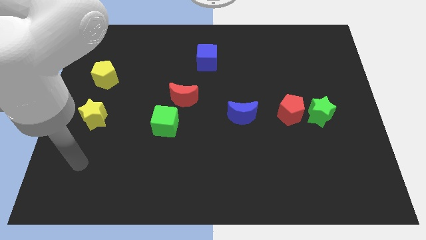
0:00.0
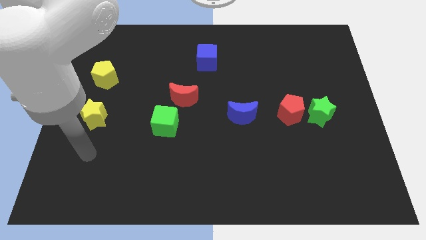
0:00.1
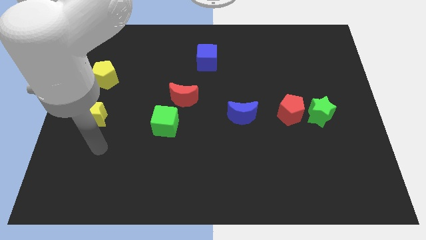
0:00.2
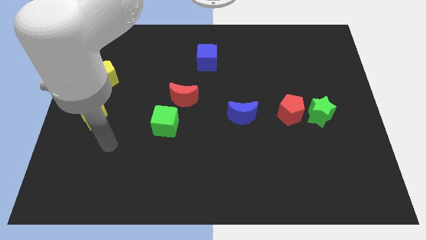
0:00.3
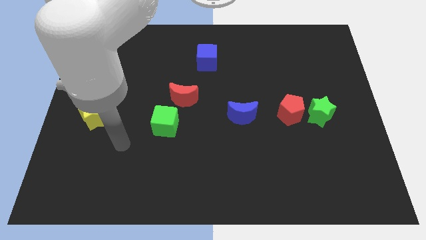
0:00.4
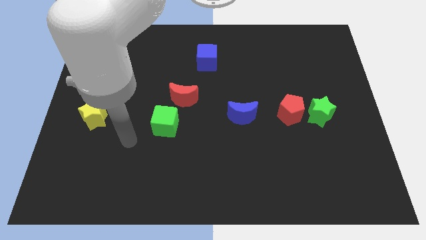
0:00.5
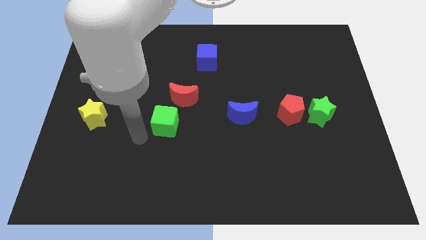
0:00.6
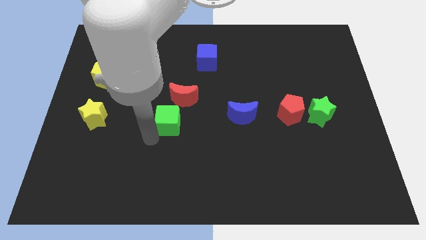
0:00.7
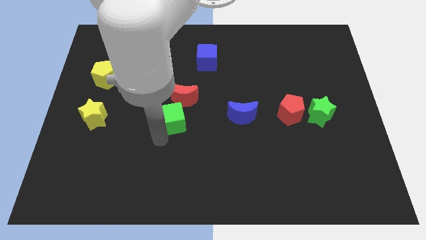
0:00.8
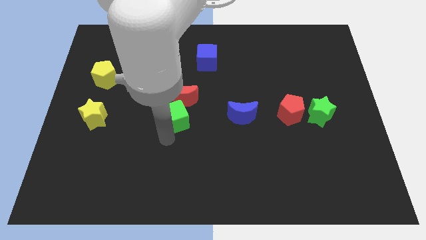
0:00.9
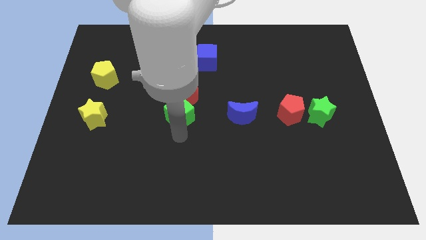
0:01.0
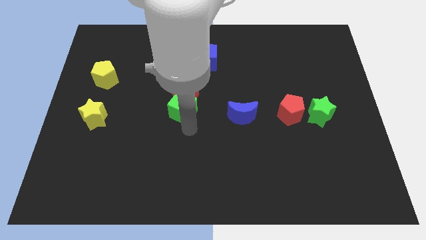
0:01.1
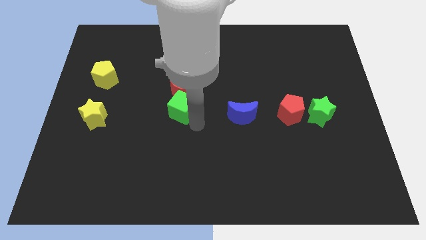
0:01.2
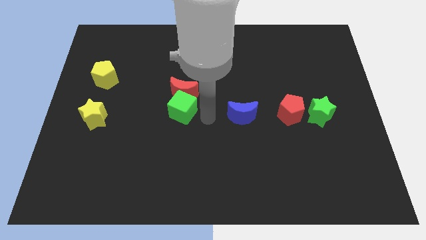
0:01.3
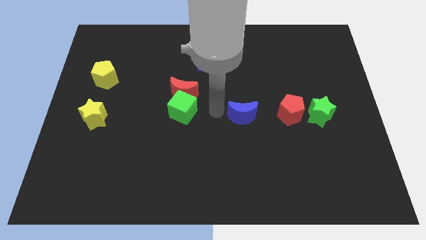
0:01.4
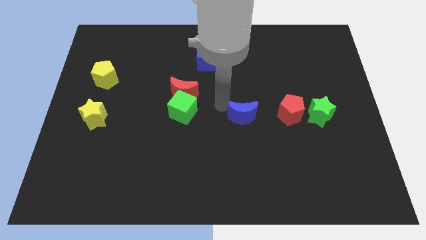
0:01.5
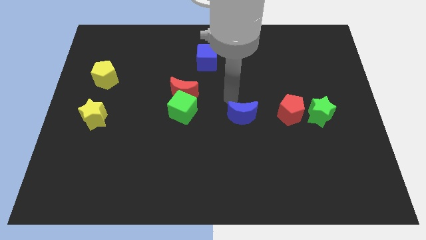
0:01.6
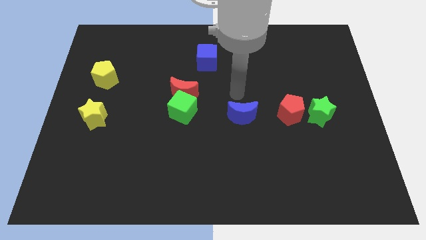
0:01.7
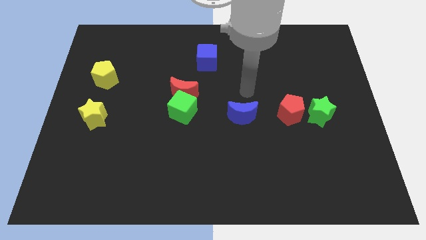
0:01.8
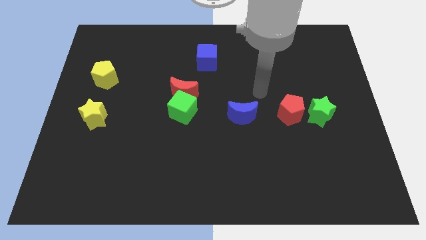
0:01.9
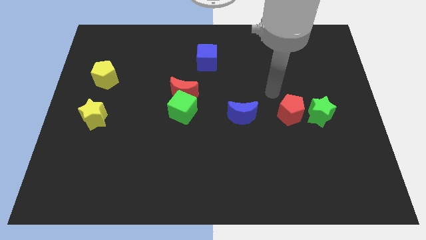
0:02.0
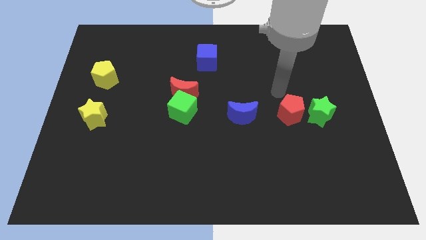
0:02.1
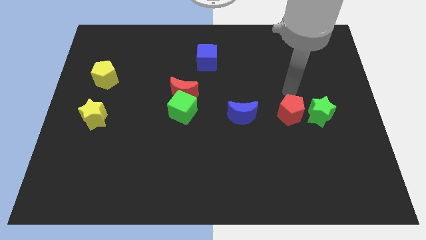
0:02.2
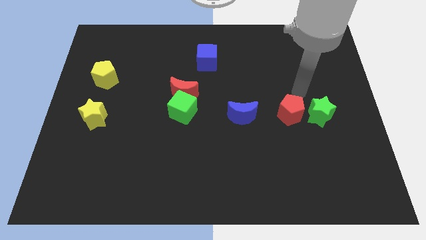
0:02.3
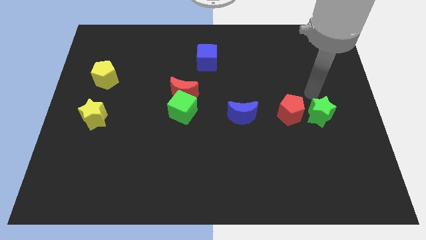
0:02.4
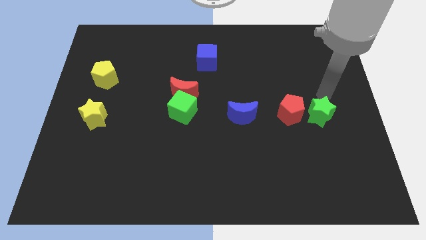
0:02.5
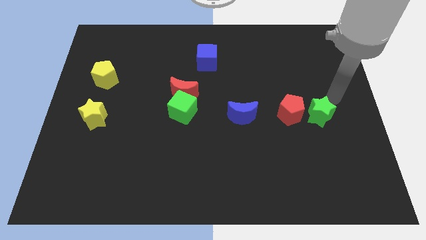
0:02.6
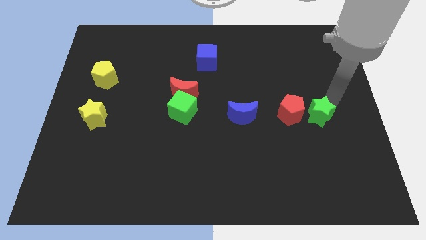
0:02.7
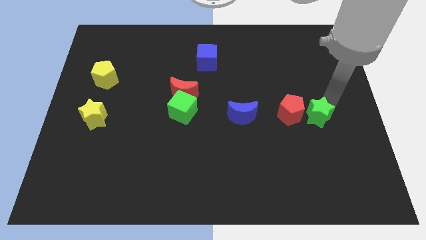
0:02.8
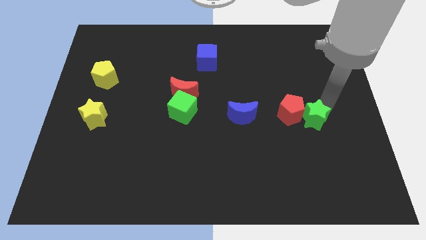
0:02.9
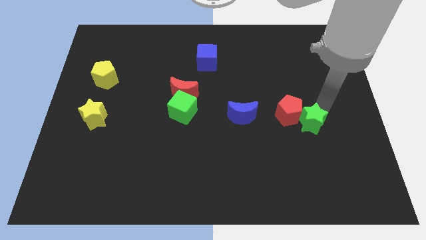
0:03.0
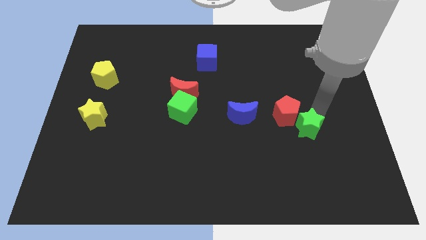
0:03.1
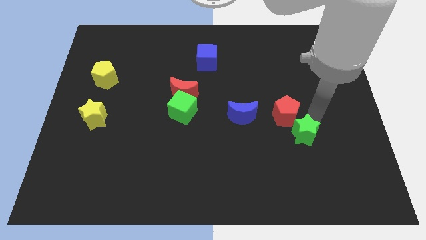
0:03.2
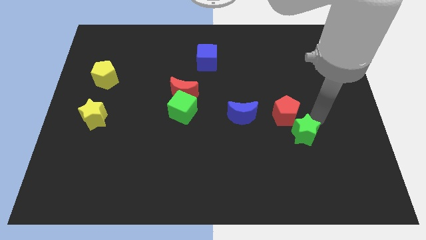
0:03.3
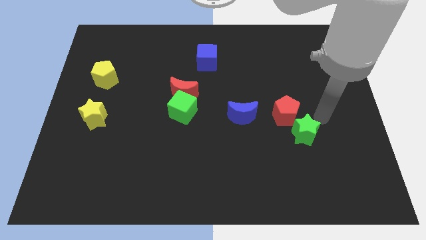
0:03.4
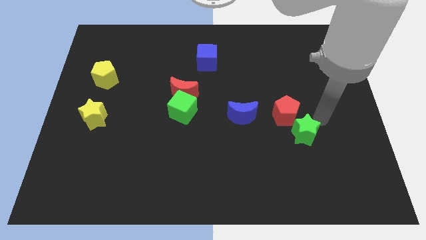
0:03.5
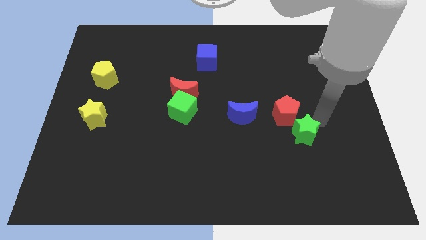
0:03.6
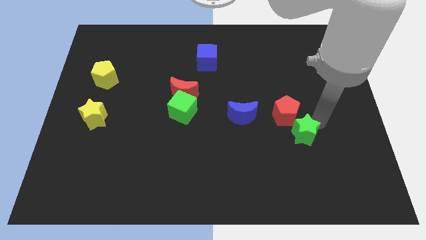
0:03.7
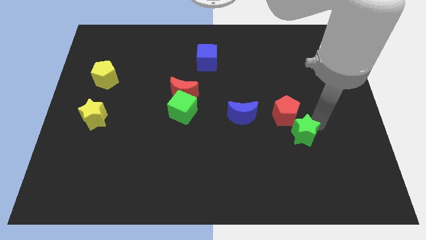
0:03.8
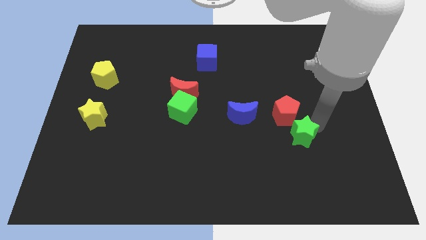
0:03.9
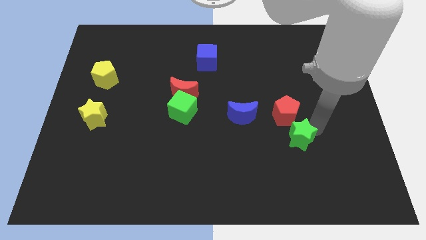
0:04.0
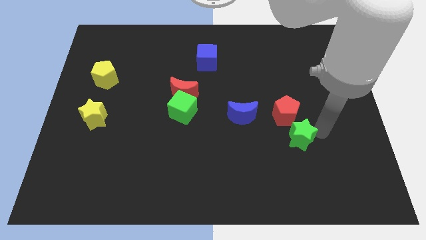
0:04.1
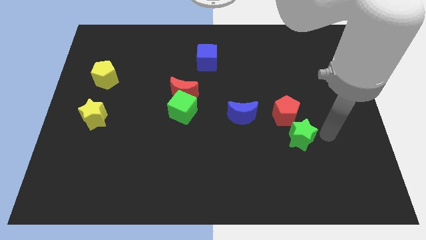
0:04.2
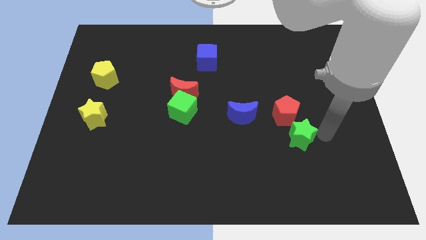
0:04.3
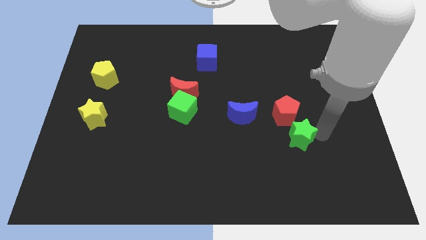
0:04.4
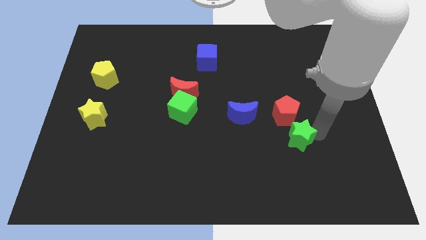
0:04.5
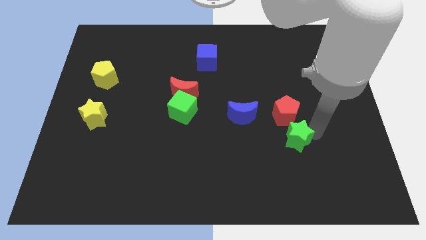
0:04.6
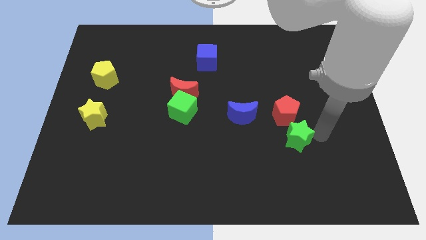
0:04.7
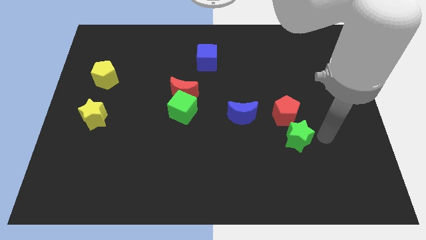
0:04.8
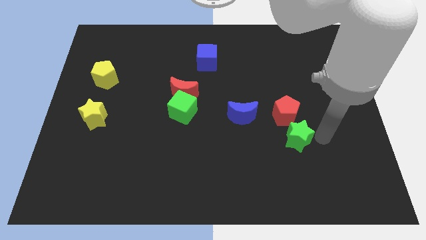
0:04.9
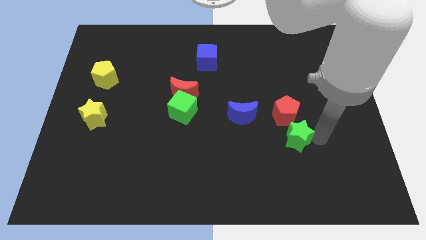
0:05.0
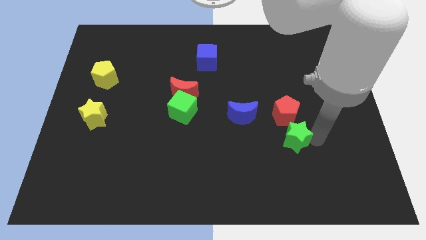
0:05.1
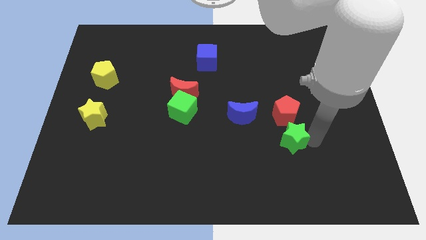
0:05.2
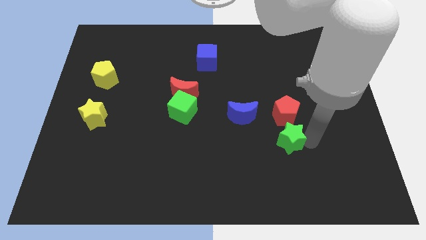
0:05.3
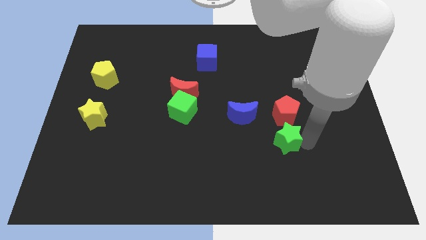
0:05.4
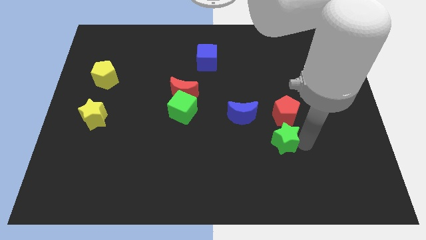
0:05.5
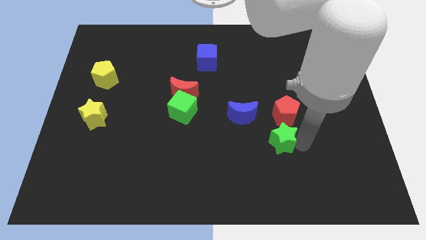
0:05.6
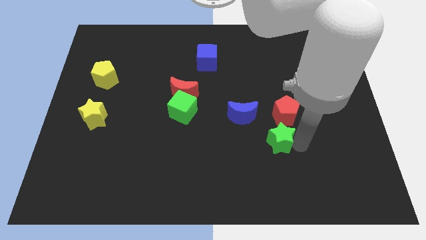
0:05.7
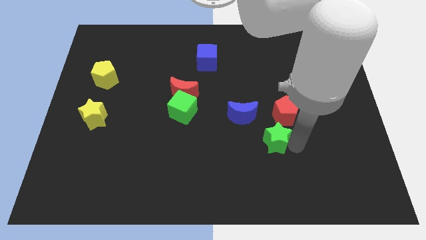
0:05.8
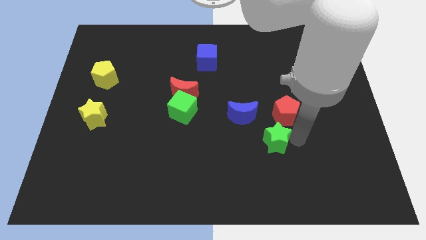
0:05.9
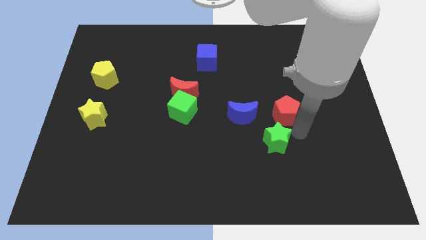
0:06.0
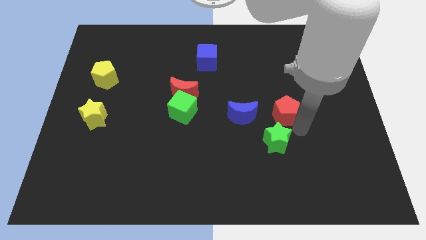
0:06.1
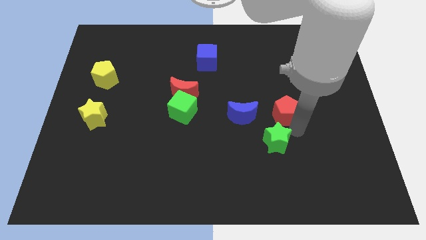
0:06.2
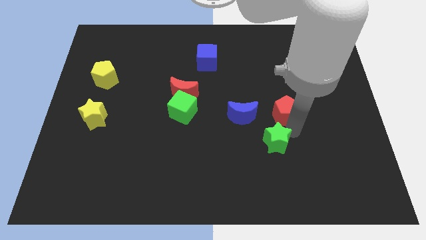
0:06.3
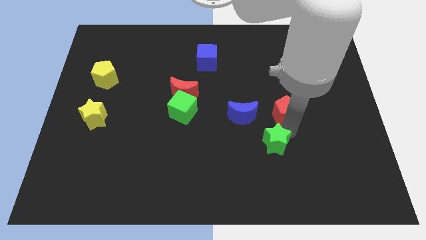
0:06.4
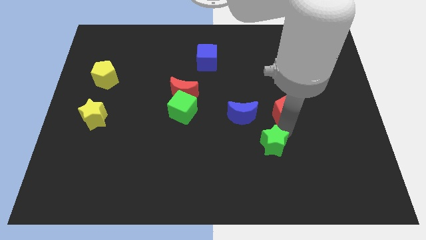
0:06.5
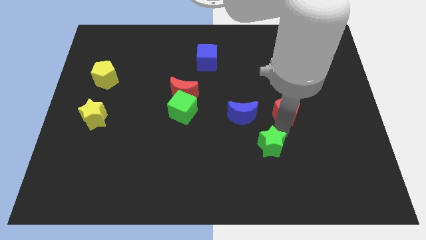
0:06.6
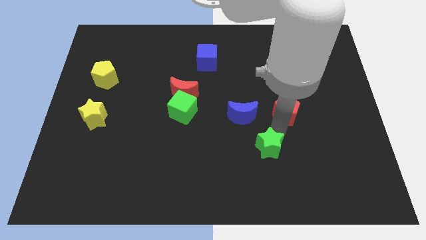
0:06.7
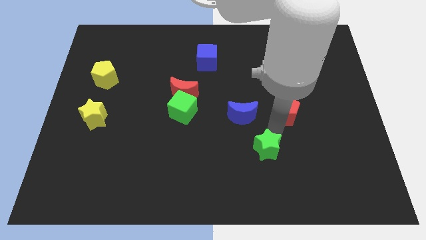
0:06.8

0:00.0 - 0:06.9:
slide the green star to the bottom of the blue moon
